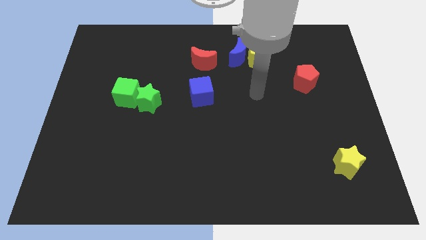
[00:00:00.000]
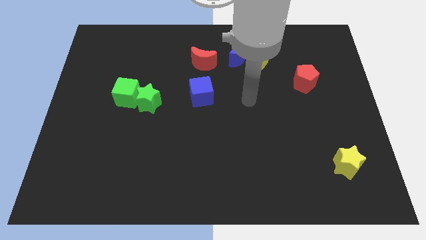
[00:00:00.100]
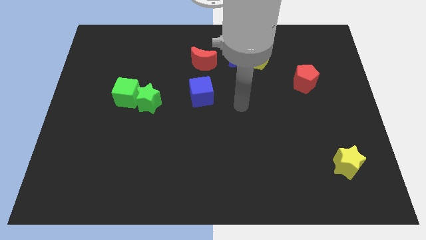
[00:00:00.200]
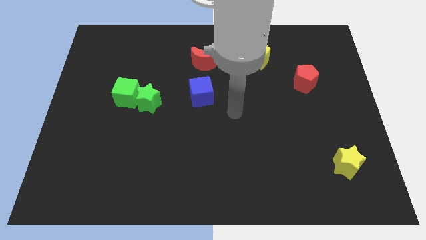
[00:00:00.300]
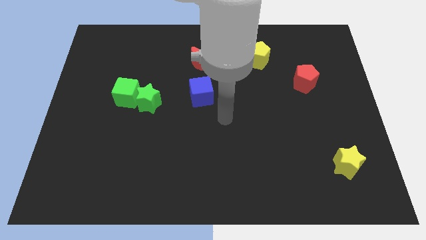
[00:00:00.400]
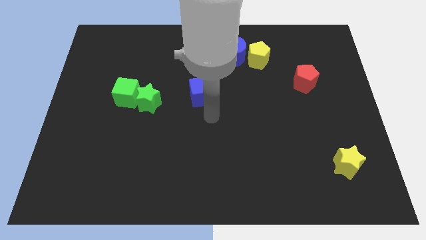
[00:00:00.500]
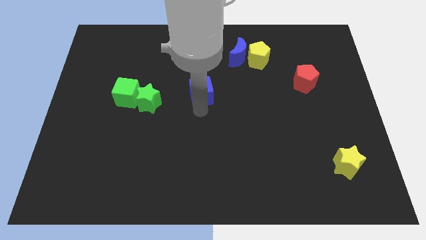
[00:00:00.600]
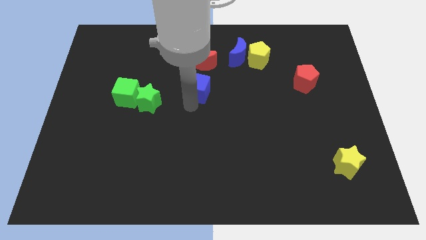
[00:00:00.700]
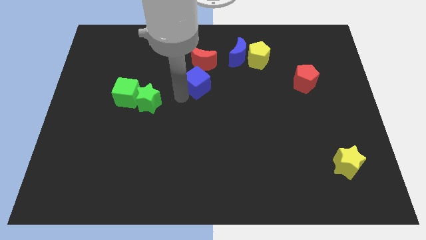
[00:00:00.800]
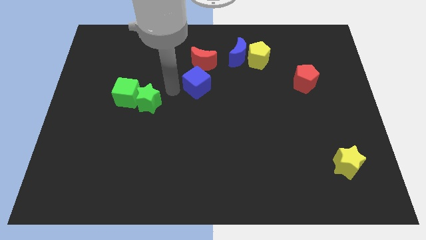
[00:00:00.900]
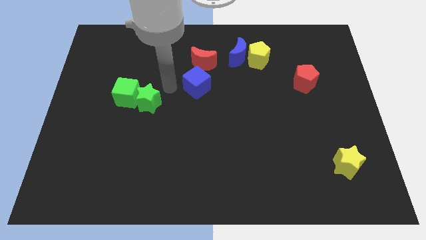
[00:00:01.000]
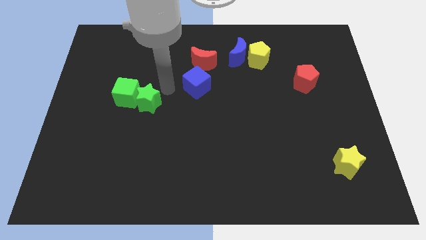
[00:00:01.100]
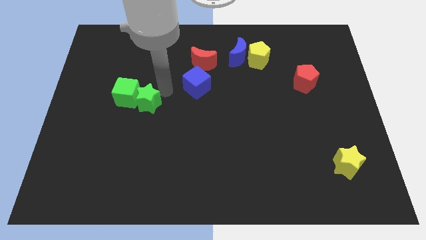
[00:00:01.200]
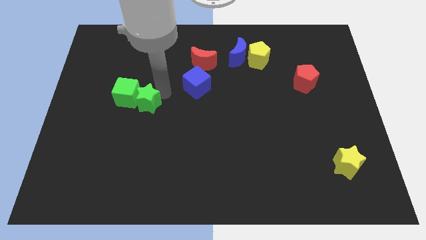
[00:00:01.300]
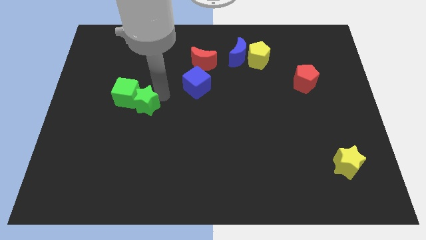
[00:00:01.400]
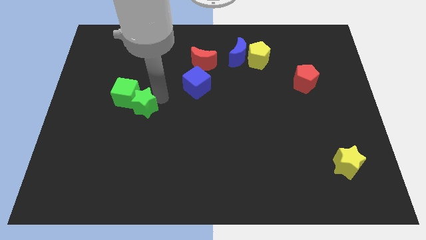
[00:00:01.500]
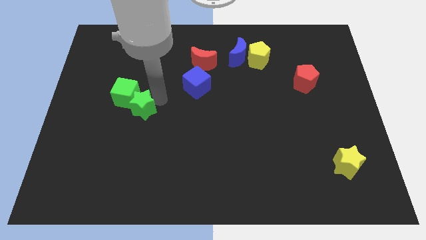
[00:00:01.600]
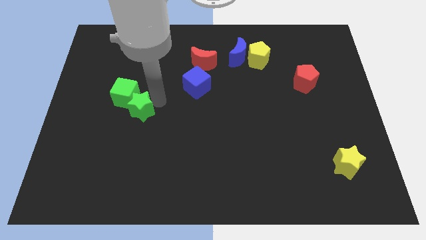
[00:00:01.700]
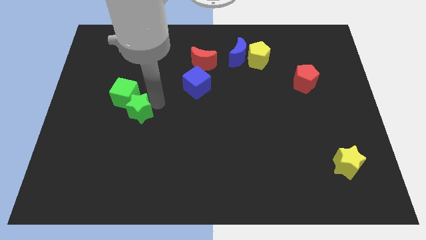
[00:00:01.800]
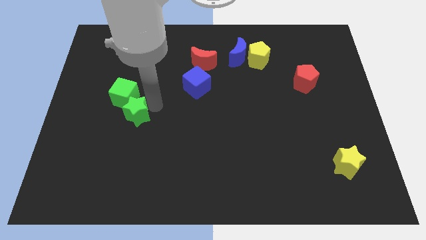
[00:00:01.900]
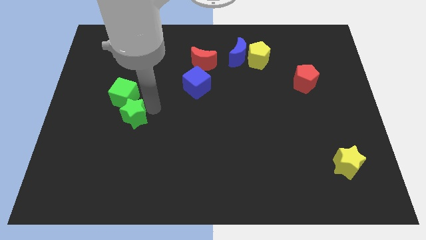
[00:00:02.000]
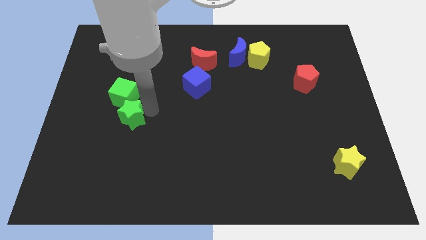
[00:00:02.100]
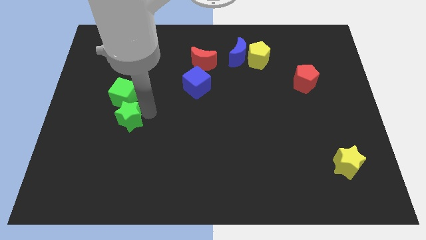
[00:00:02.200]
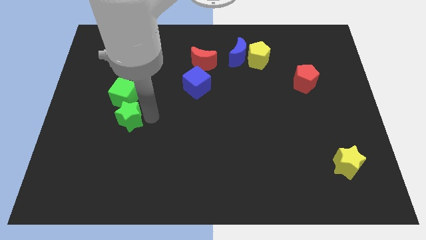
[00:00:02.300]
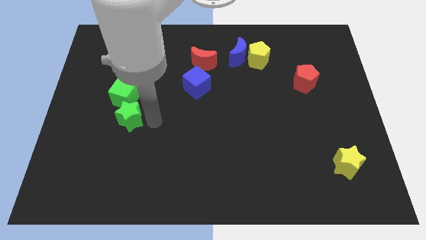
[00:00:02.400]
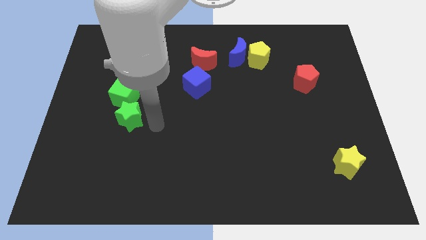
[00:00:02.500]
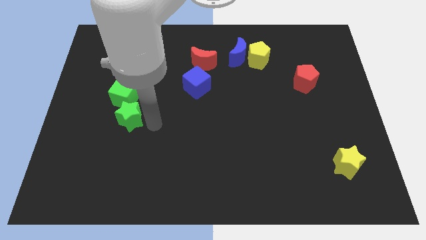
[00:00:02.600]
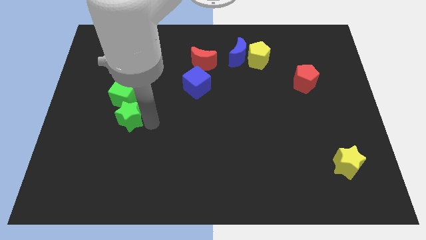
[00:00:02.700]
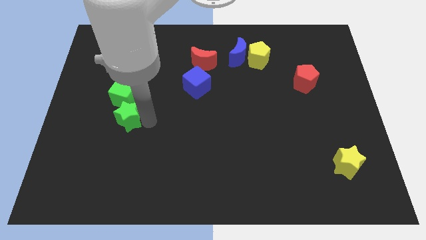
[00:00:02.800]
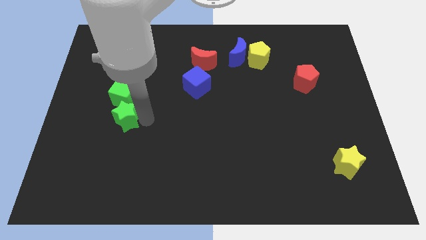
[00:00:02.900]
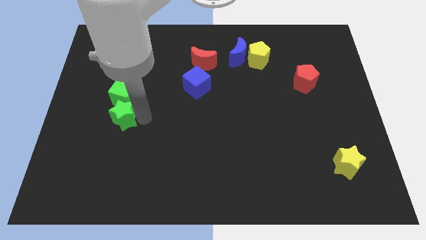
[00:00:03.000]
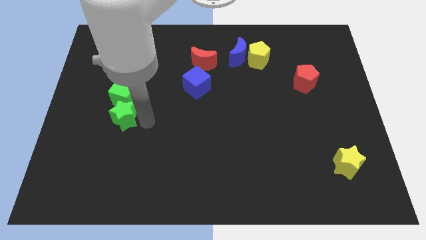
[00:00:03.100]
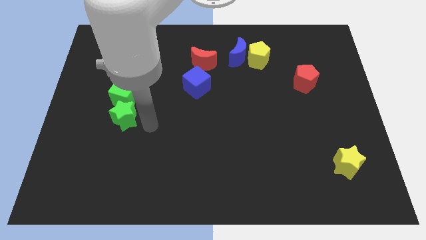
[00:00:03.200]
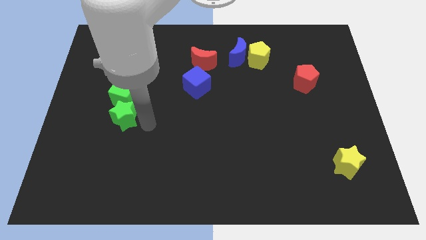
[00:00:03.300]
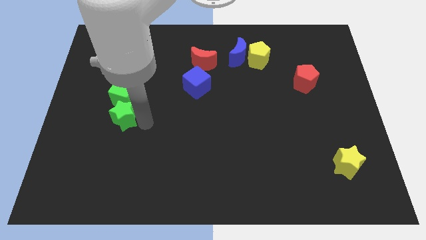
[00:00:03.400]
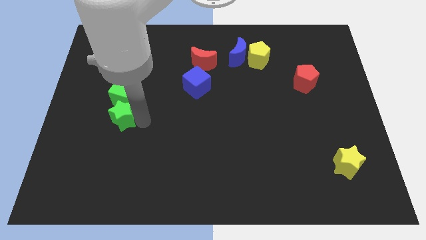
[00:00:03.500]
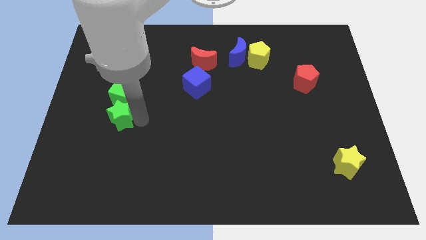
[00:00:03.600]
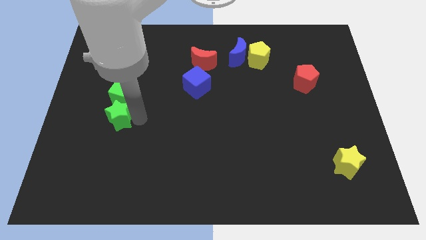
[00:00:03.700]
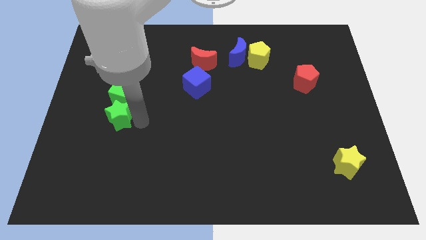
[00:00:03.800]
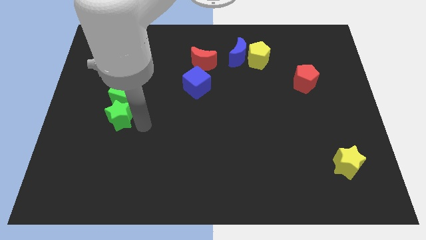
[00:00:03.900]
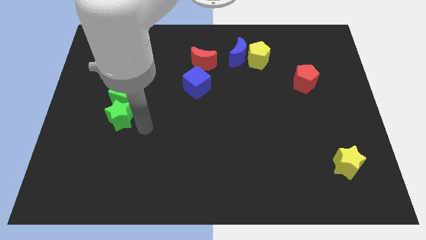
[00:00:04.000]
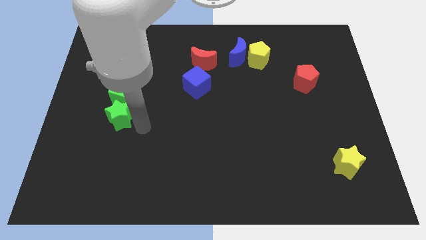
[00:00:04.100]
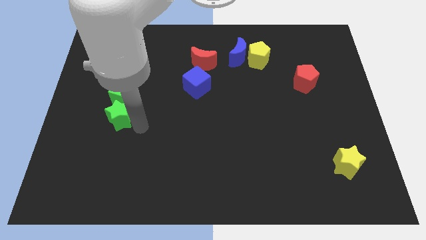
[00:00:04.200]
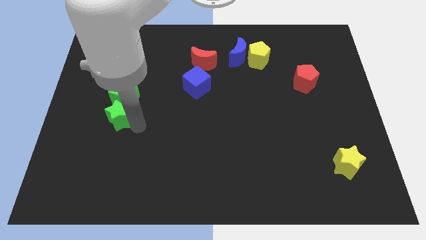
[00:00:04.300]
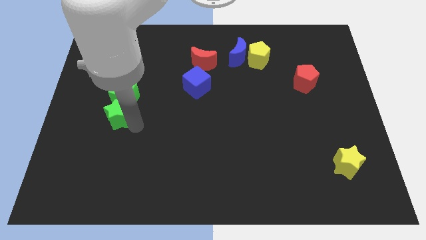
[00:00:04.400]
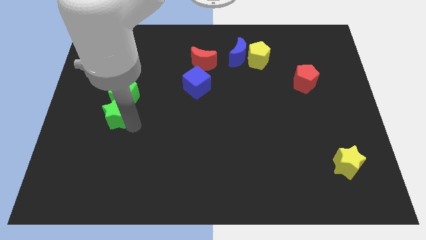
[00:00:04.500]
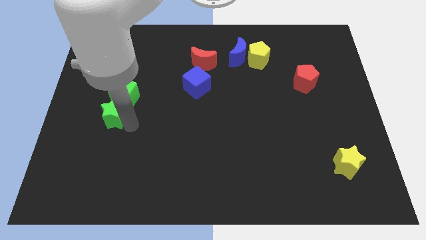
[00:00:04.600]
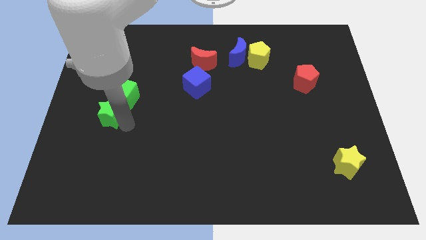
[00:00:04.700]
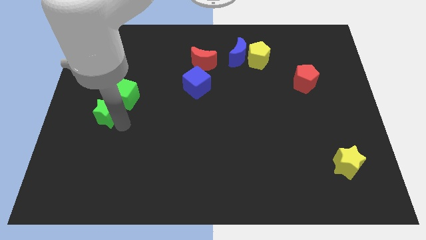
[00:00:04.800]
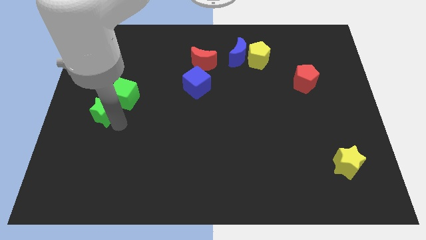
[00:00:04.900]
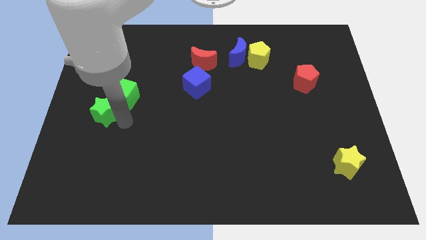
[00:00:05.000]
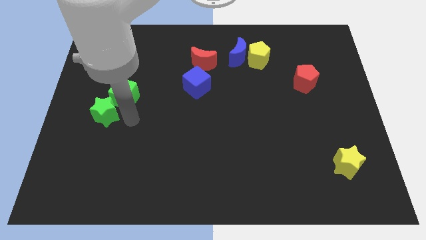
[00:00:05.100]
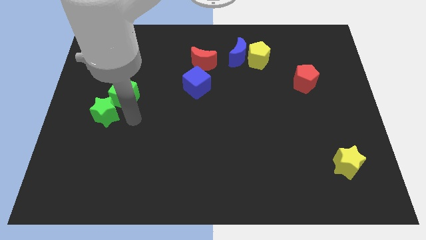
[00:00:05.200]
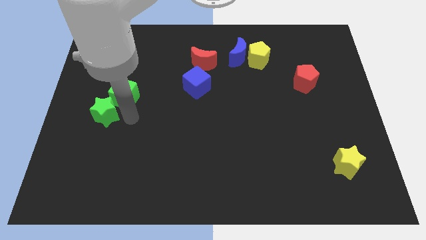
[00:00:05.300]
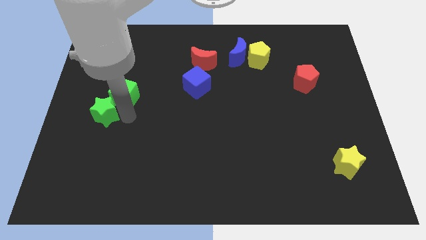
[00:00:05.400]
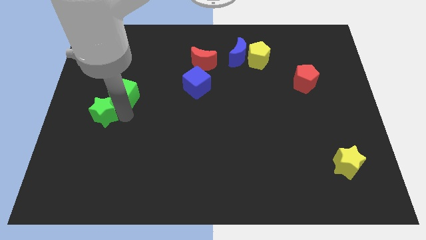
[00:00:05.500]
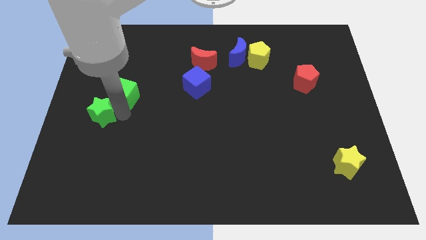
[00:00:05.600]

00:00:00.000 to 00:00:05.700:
put the green star to the center left

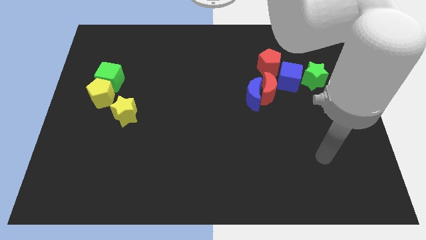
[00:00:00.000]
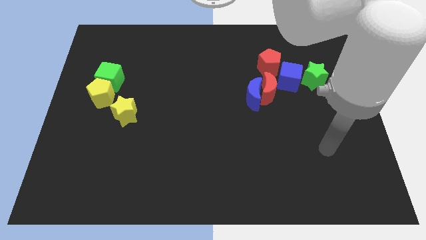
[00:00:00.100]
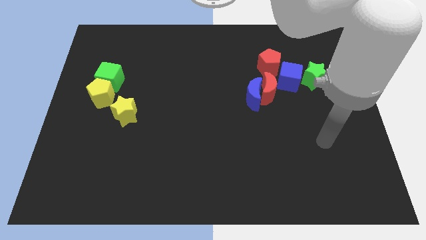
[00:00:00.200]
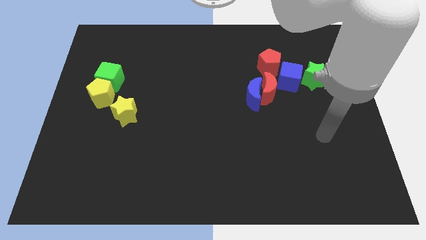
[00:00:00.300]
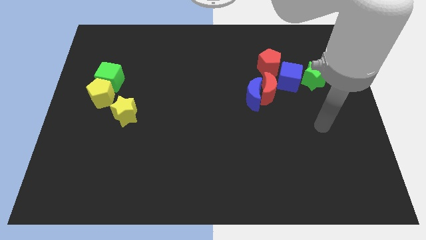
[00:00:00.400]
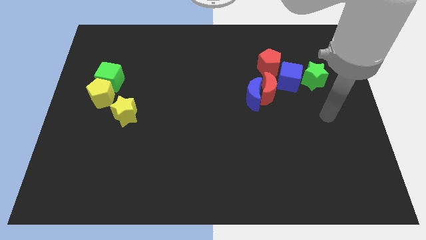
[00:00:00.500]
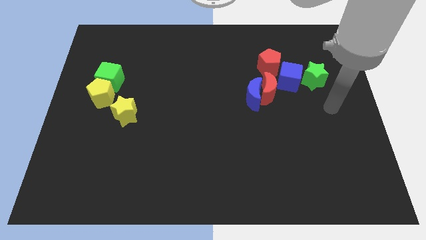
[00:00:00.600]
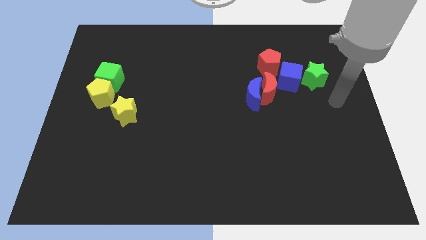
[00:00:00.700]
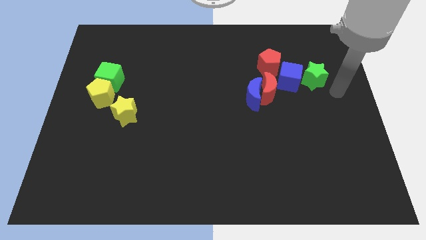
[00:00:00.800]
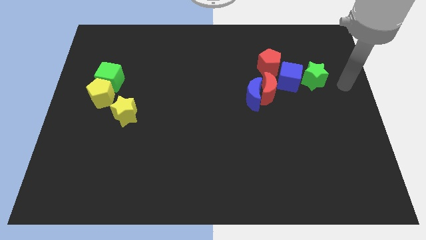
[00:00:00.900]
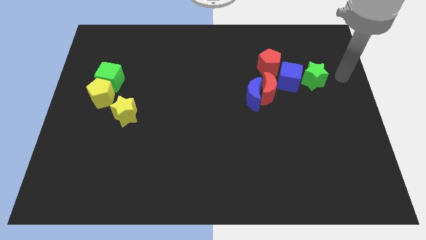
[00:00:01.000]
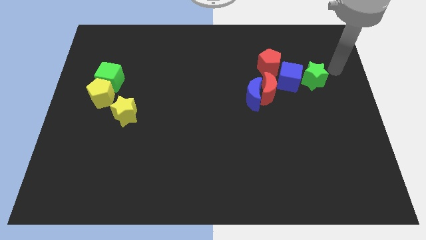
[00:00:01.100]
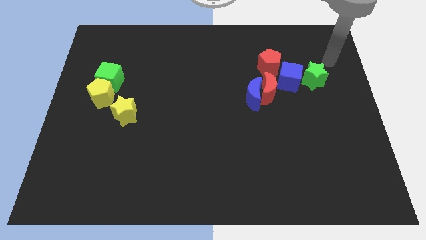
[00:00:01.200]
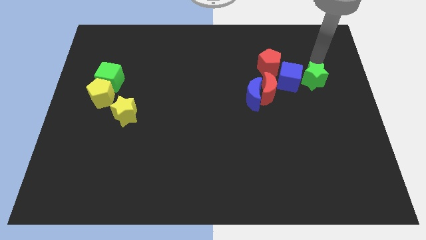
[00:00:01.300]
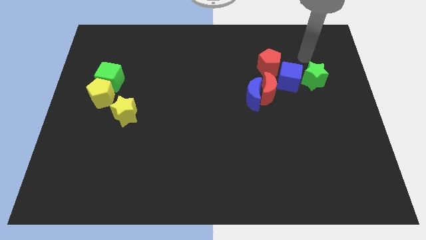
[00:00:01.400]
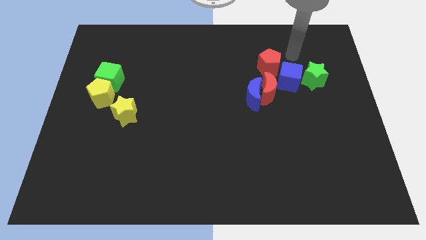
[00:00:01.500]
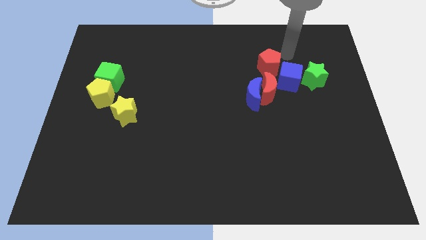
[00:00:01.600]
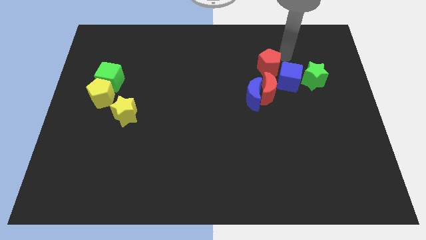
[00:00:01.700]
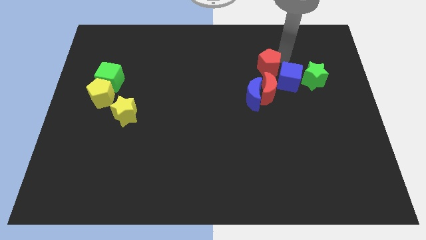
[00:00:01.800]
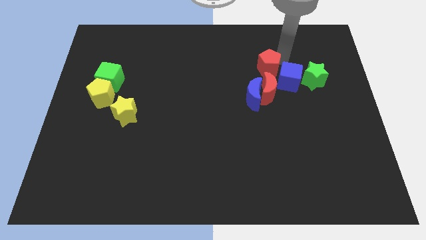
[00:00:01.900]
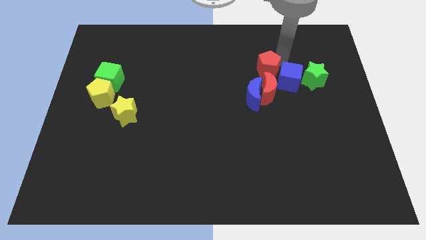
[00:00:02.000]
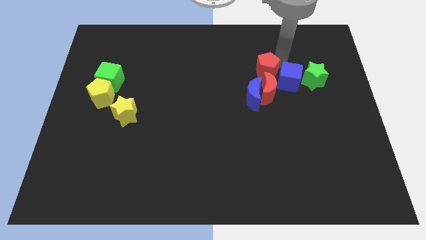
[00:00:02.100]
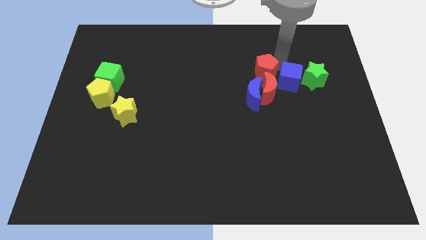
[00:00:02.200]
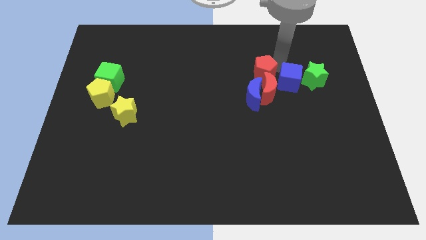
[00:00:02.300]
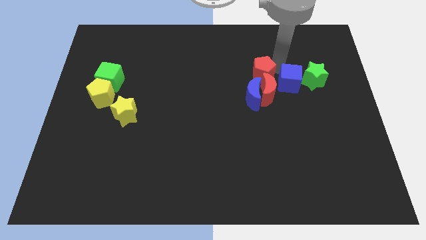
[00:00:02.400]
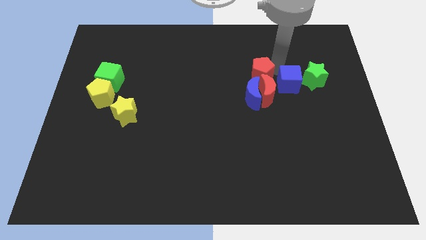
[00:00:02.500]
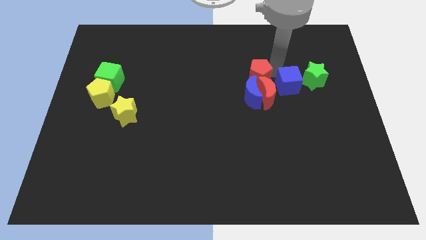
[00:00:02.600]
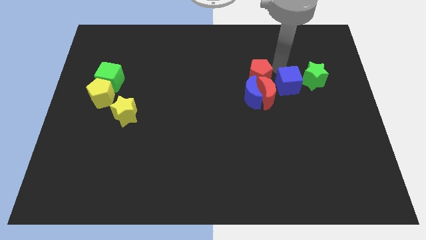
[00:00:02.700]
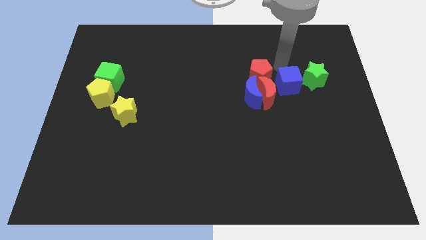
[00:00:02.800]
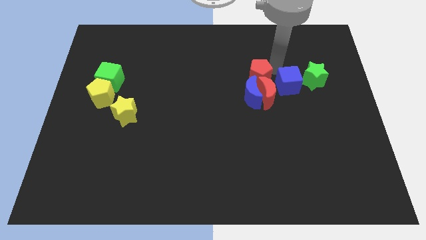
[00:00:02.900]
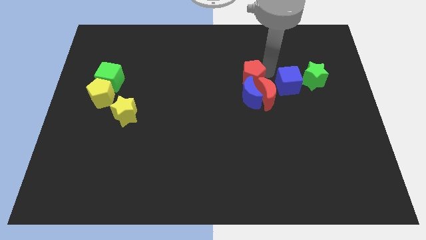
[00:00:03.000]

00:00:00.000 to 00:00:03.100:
put the red pentagon to the center of the board
